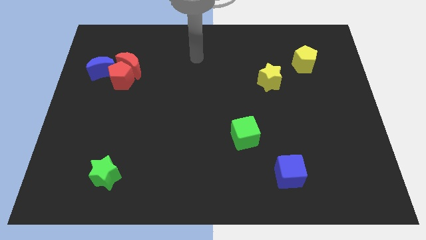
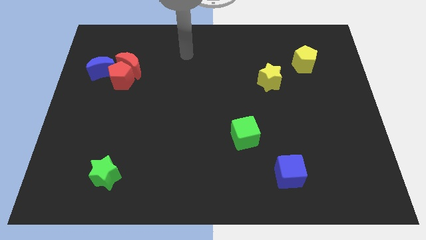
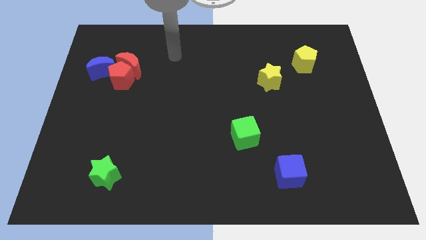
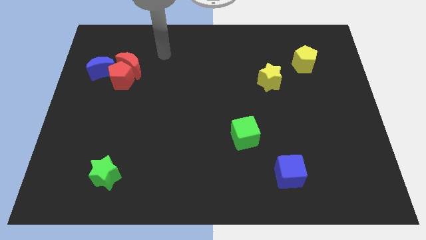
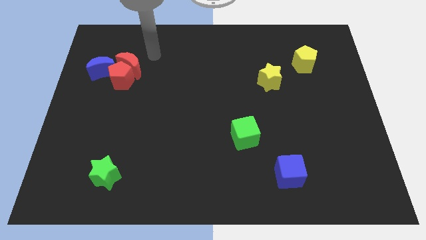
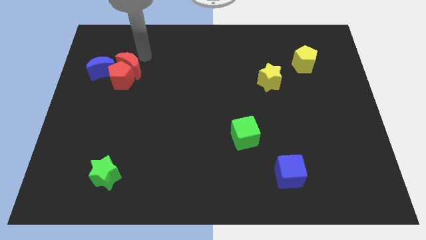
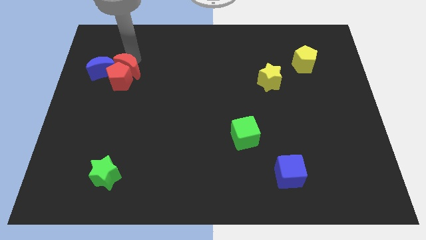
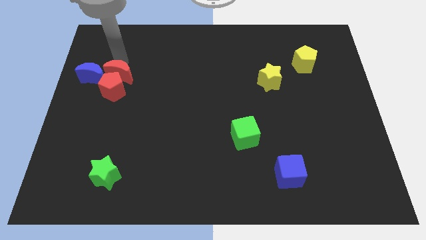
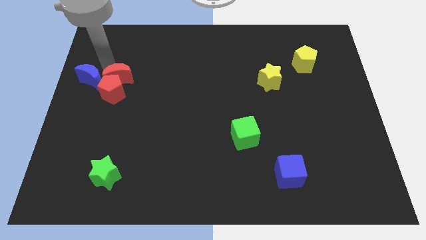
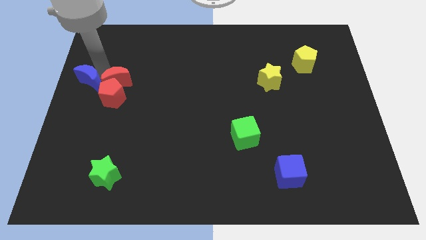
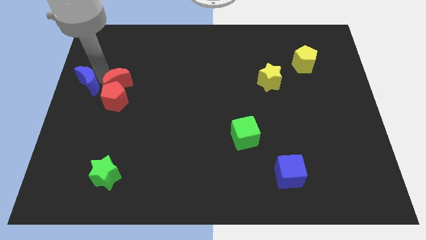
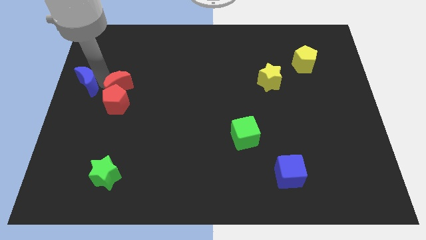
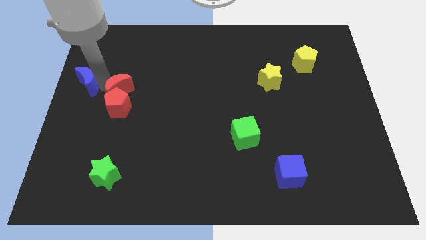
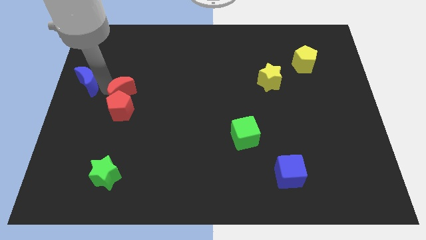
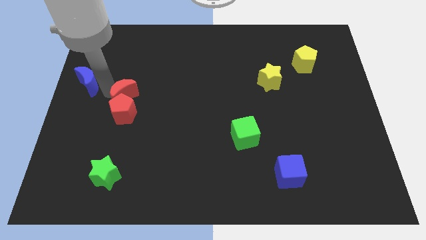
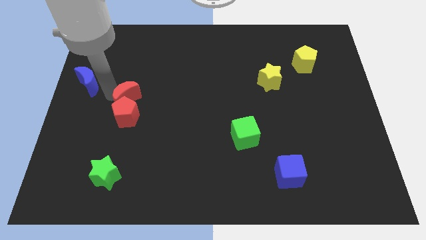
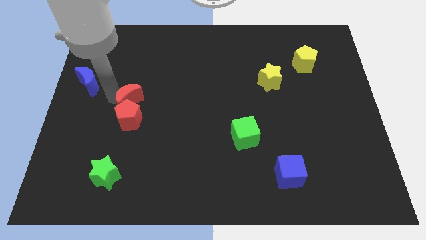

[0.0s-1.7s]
move the red pentagon away from the red moon and blue moon

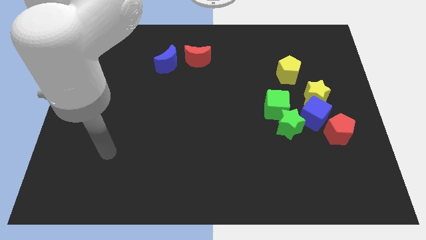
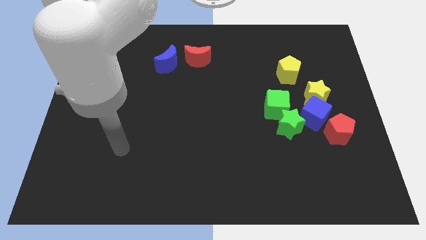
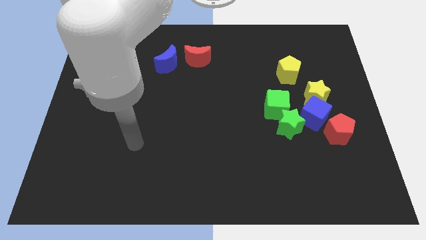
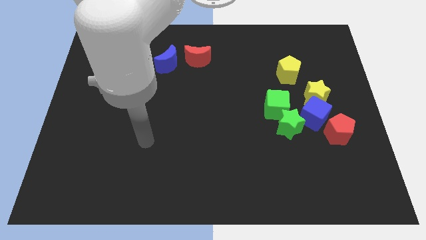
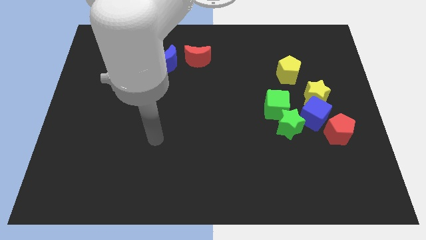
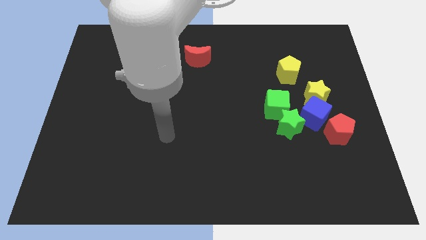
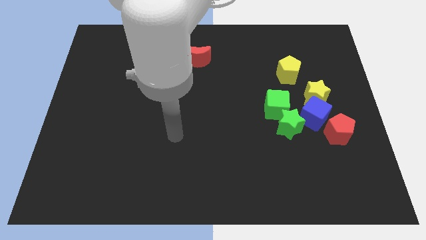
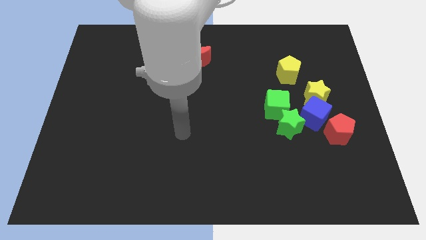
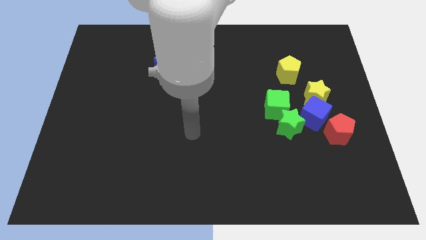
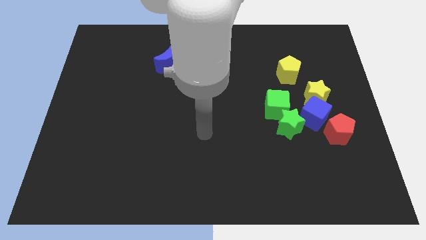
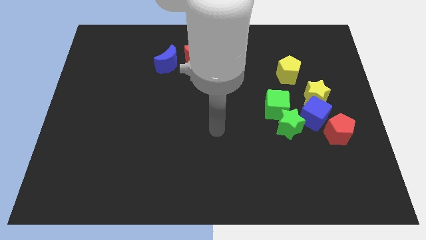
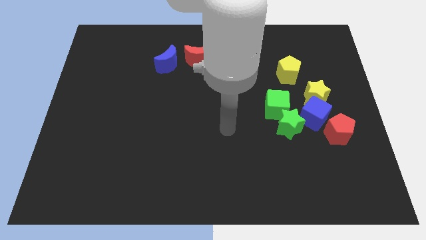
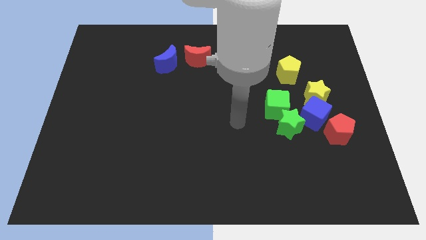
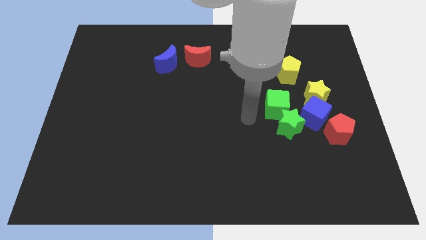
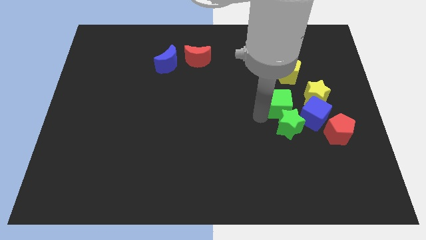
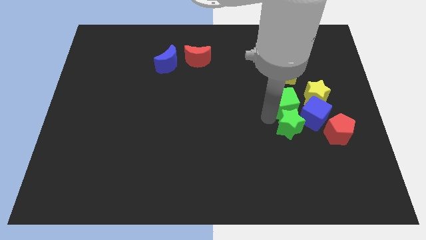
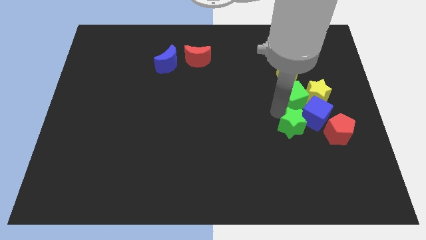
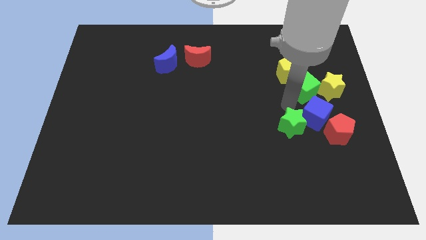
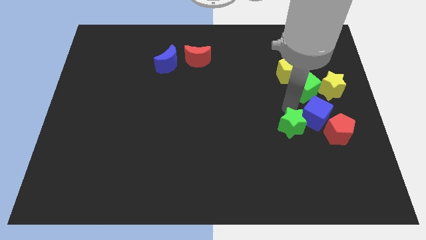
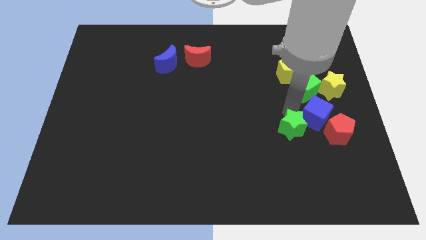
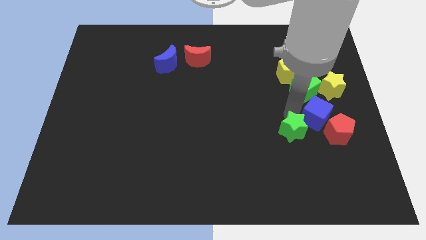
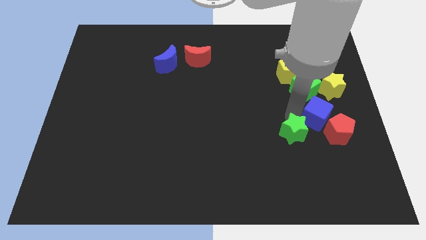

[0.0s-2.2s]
pull the green star apart from the green cube and blue cube

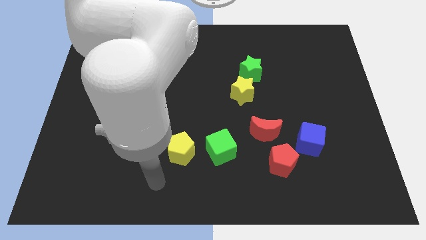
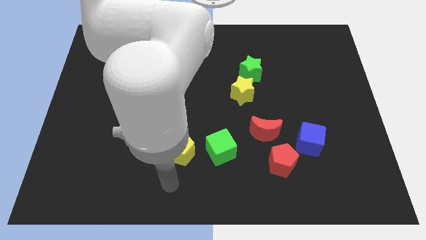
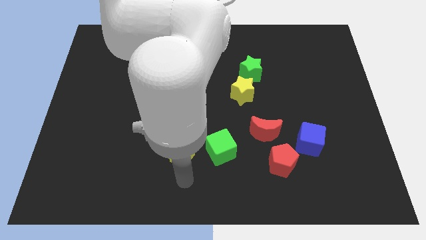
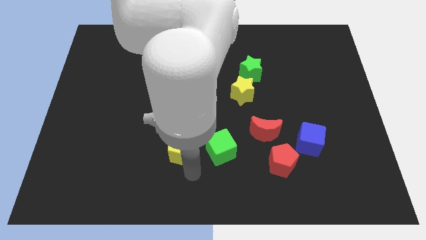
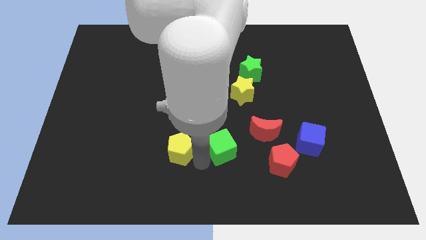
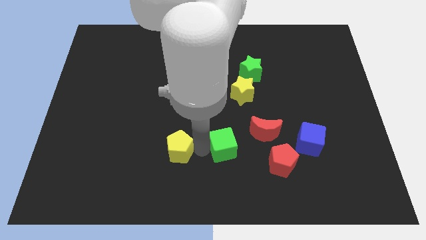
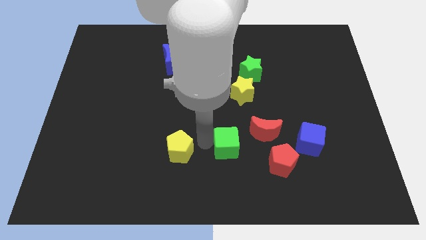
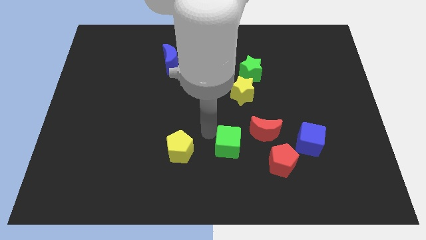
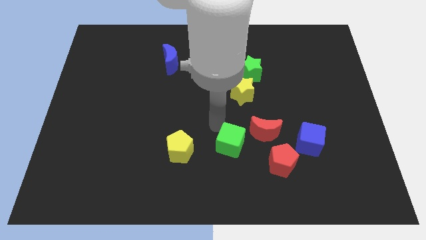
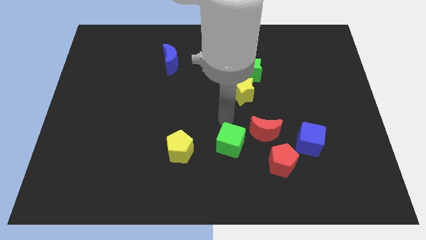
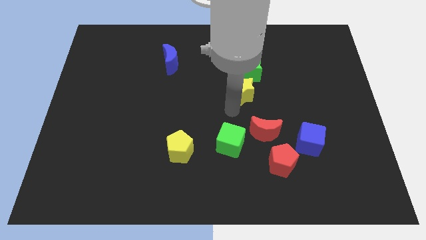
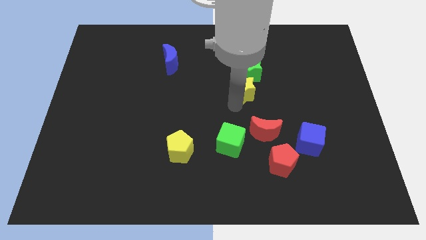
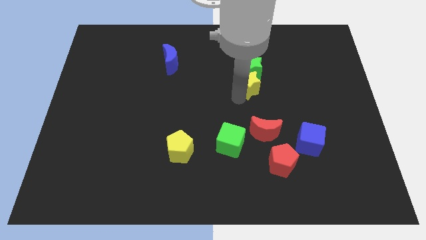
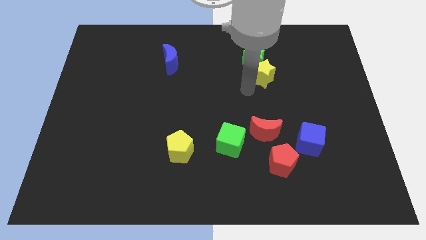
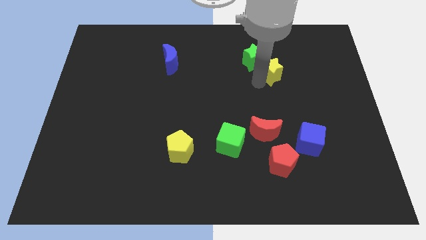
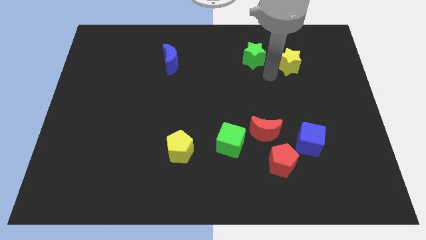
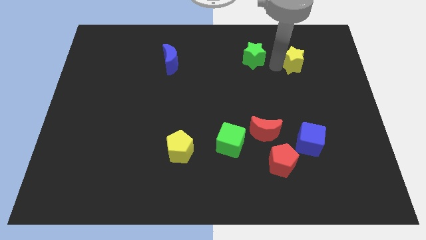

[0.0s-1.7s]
move the green star away from the yellow star

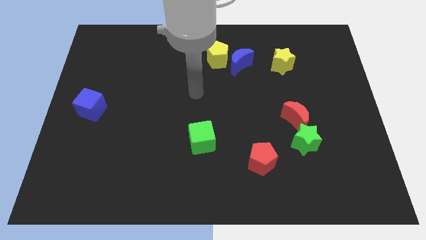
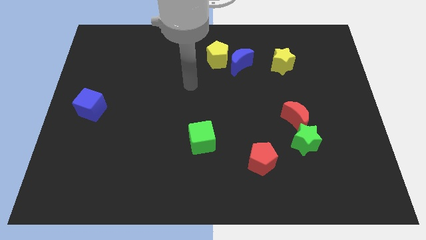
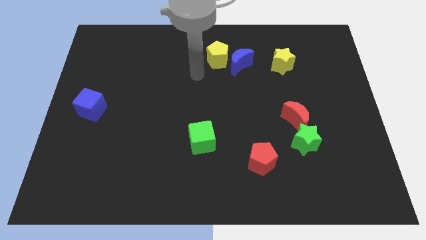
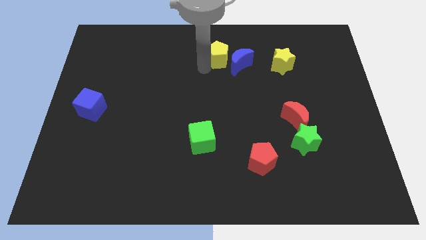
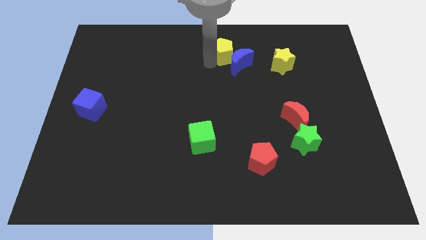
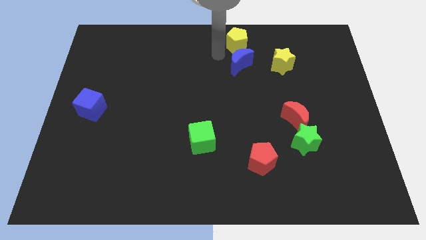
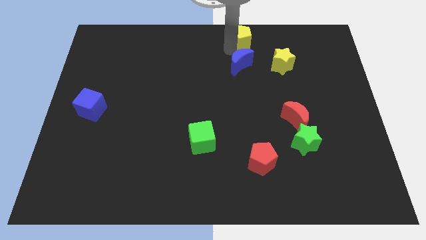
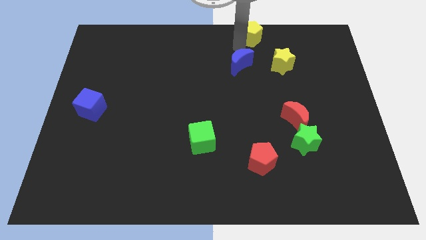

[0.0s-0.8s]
move the blue moon away from the yellow pentagon

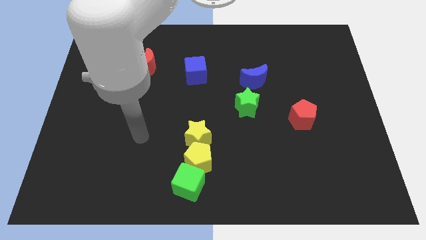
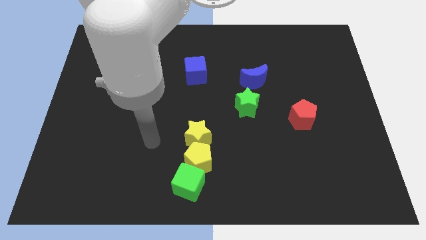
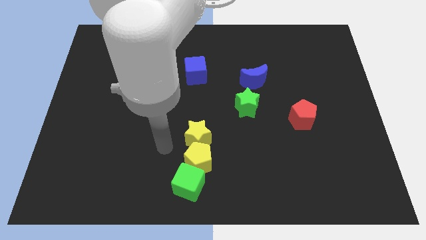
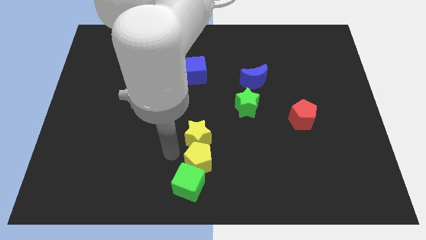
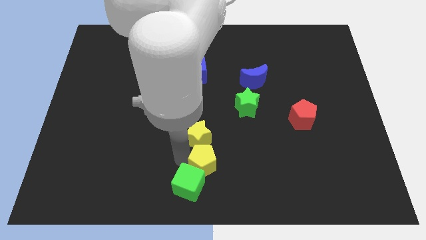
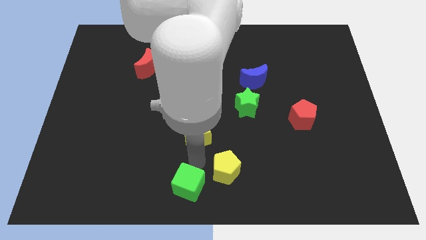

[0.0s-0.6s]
pull the yellow star apart from the yellow pentagon

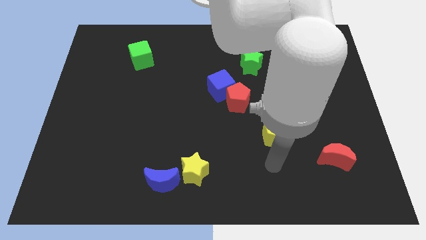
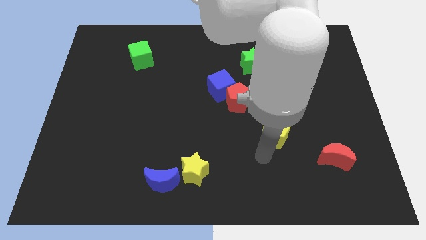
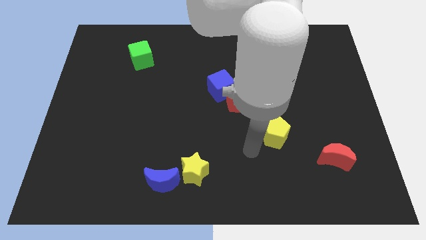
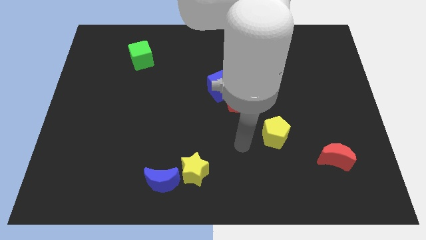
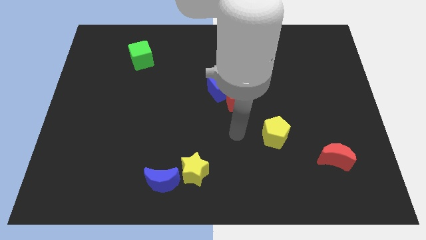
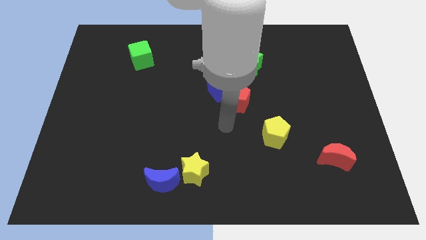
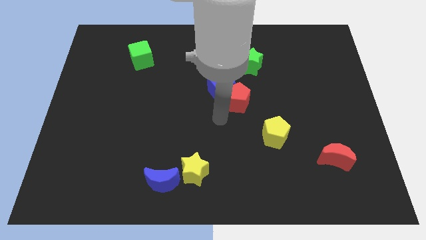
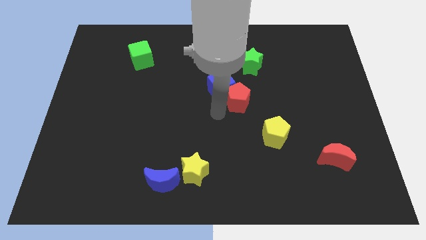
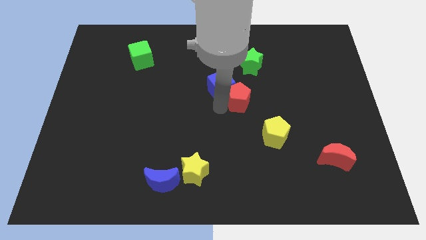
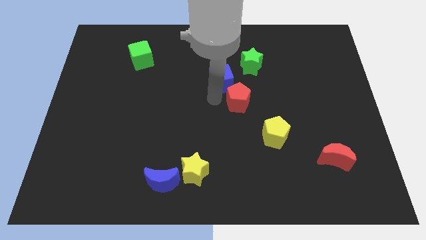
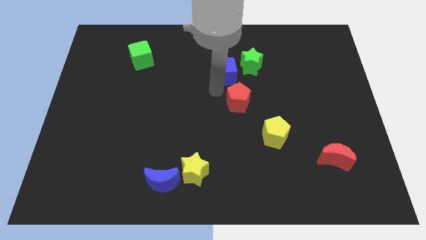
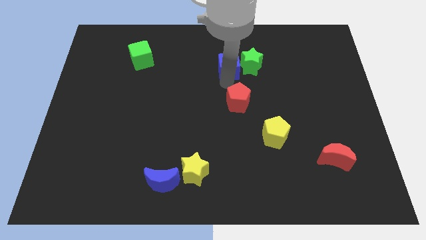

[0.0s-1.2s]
separate the red pentagon from the blue cube

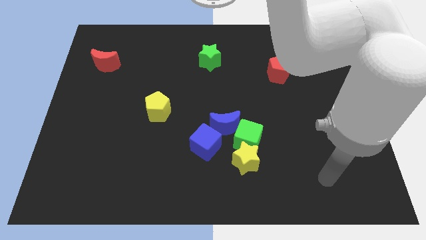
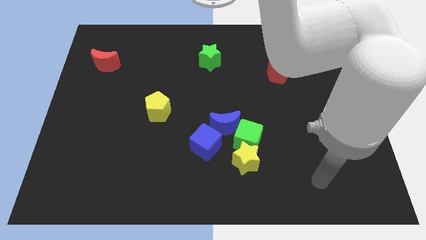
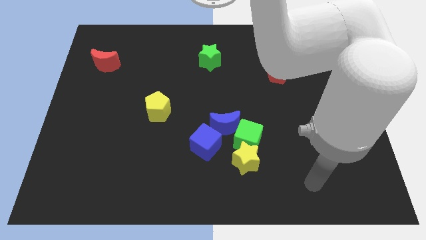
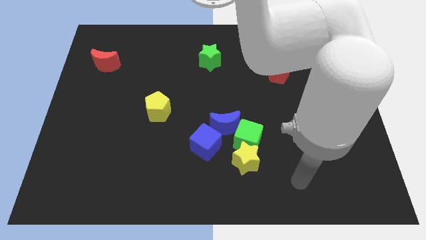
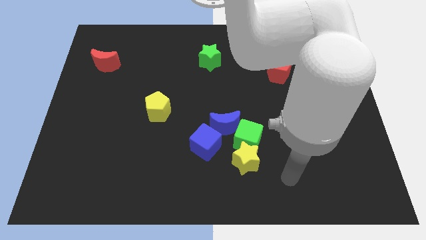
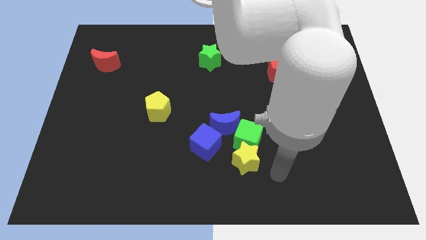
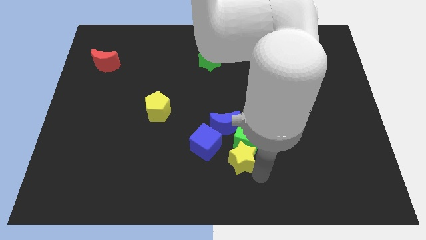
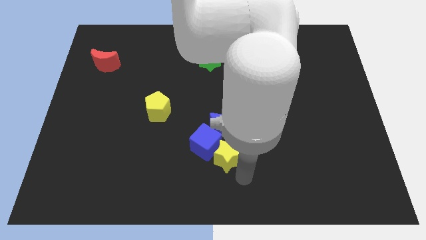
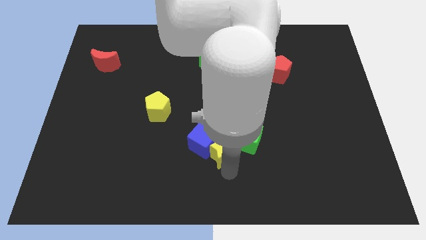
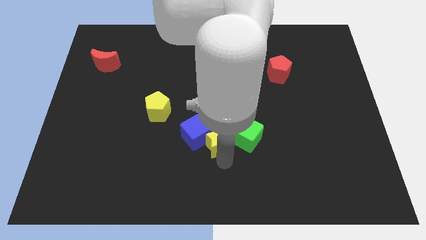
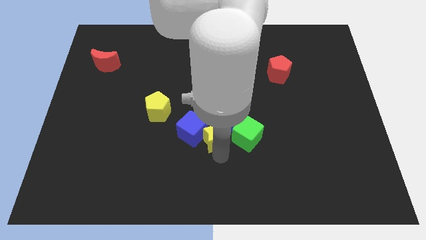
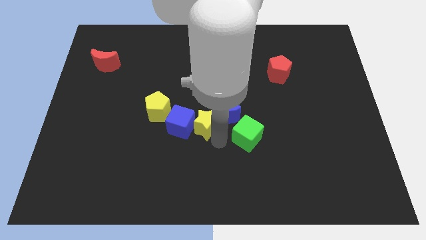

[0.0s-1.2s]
move the green cube away from the yellow star, blue moon, and blue cube
